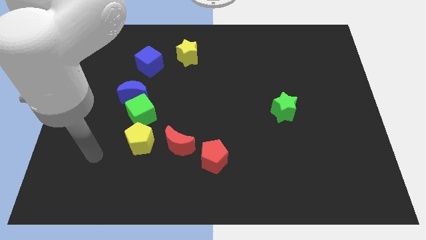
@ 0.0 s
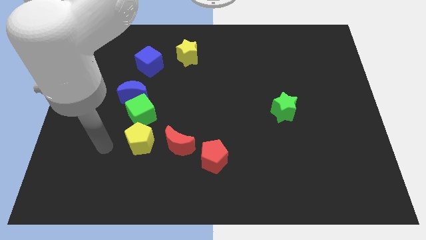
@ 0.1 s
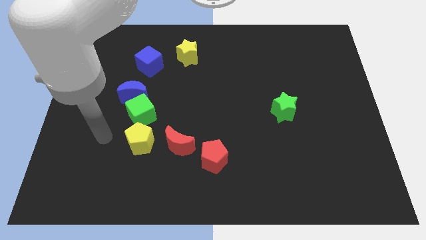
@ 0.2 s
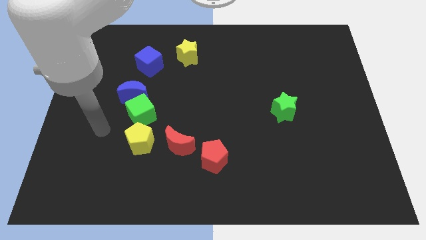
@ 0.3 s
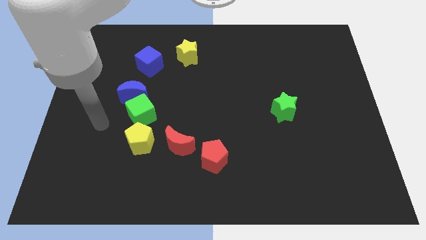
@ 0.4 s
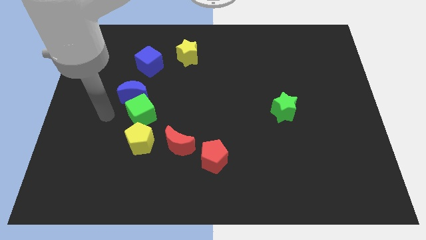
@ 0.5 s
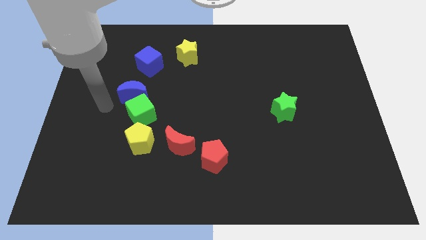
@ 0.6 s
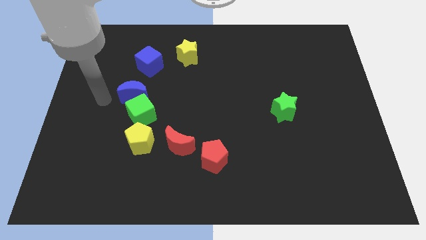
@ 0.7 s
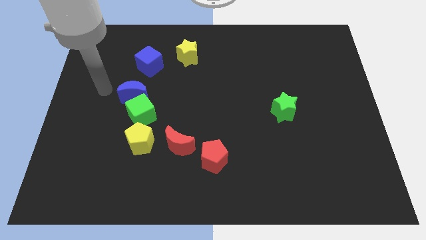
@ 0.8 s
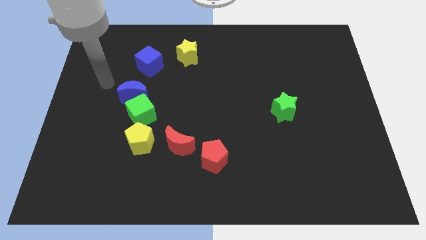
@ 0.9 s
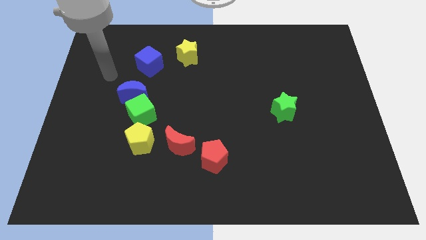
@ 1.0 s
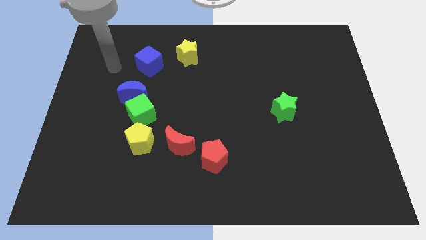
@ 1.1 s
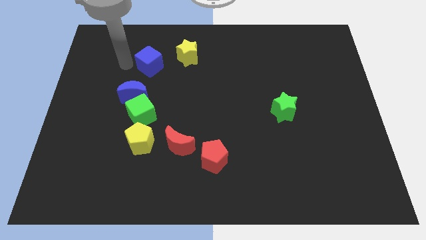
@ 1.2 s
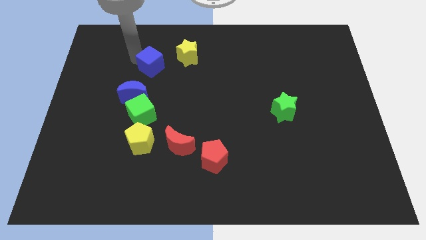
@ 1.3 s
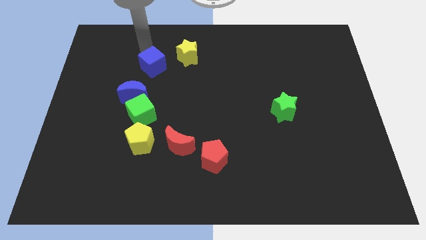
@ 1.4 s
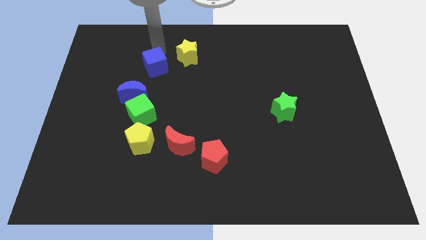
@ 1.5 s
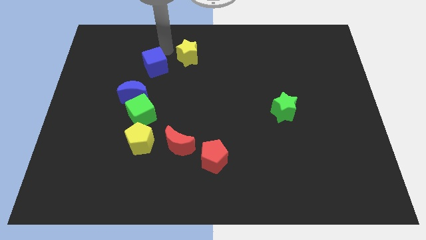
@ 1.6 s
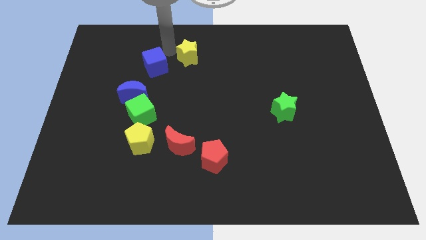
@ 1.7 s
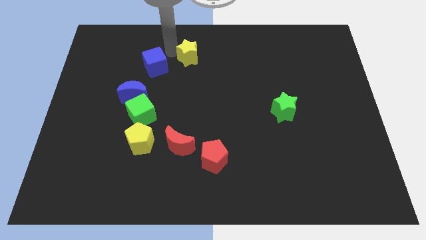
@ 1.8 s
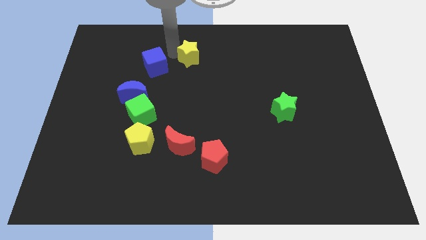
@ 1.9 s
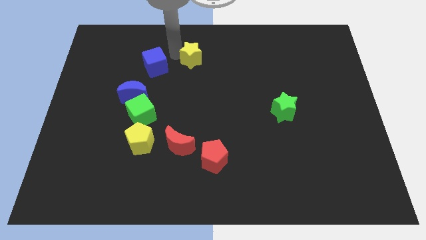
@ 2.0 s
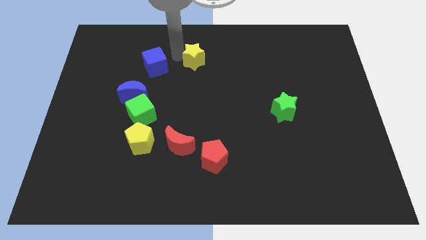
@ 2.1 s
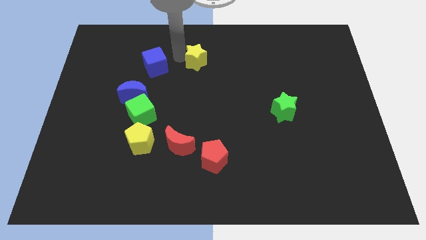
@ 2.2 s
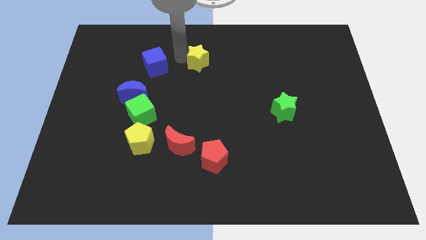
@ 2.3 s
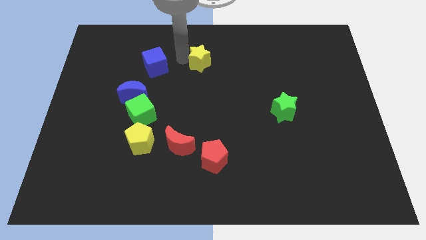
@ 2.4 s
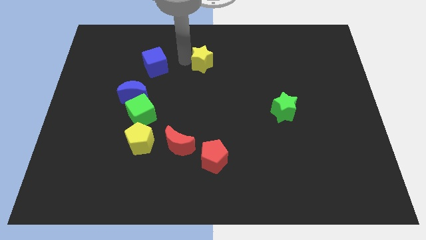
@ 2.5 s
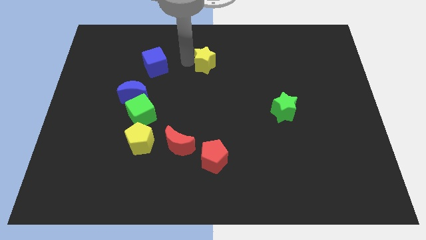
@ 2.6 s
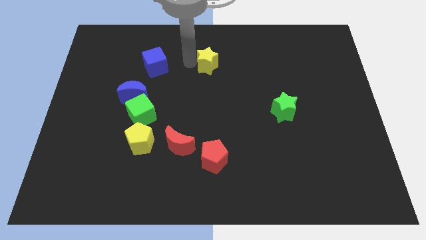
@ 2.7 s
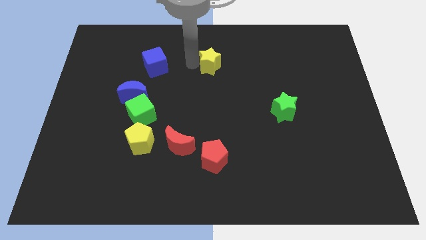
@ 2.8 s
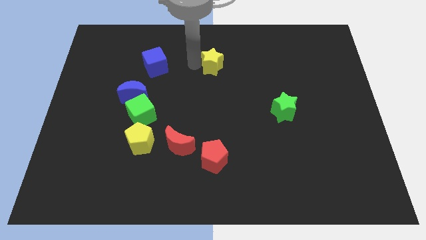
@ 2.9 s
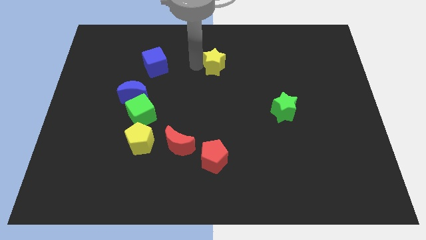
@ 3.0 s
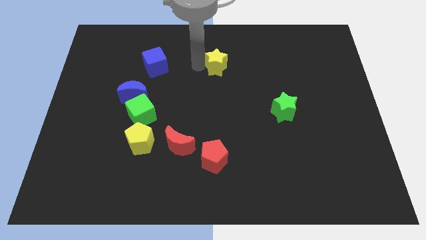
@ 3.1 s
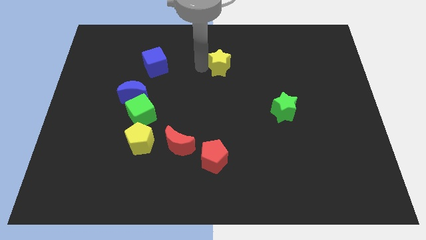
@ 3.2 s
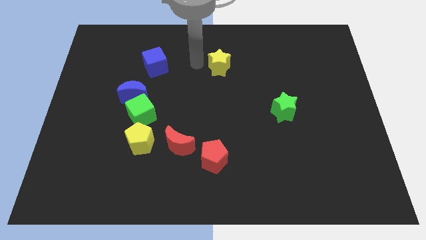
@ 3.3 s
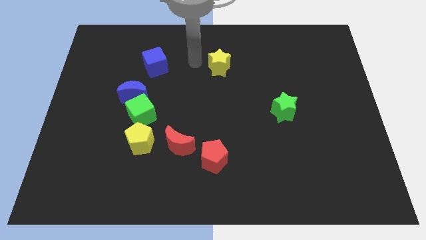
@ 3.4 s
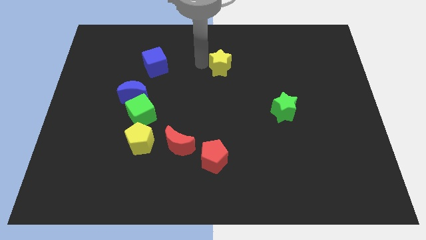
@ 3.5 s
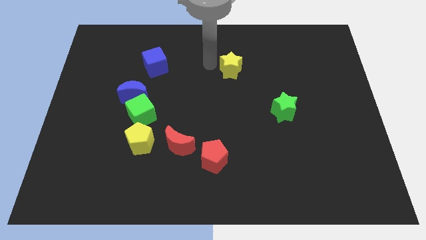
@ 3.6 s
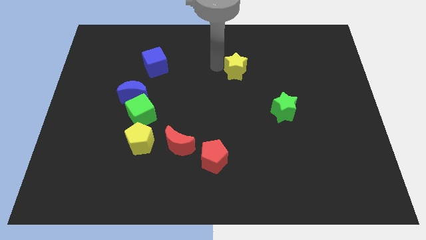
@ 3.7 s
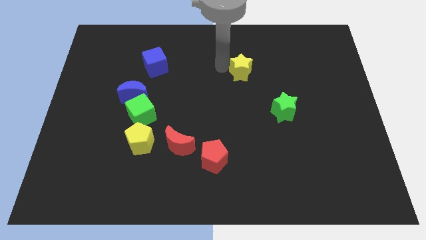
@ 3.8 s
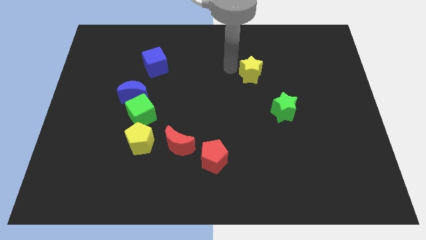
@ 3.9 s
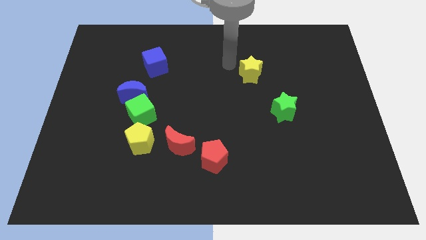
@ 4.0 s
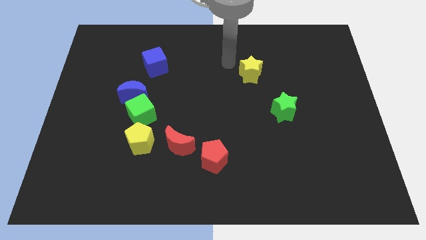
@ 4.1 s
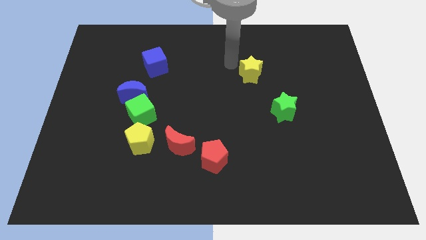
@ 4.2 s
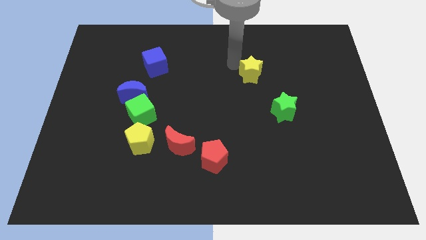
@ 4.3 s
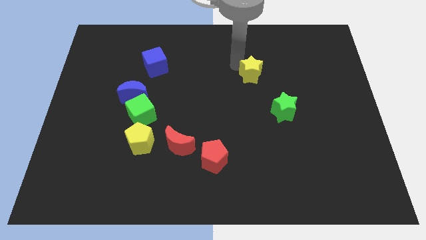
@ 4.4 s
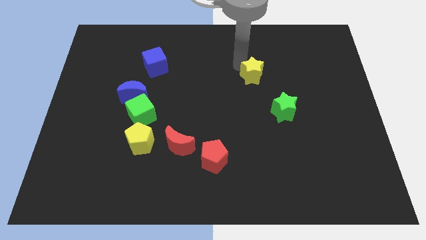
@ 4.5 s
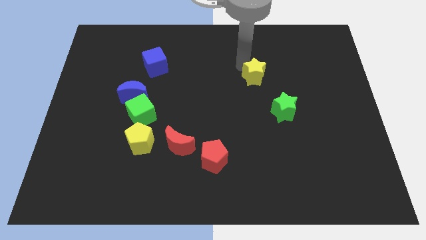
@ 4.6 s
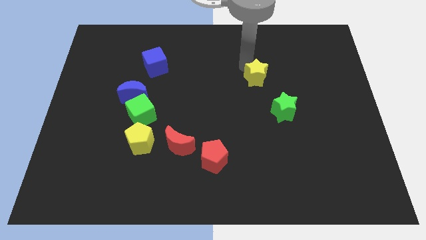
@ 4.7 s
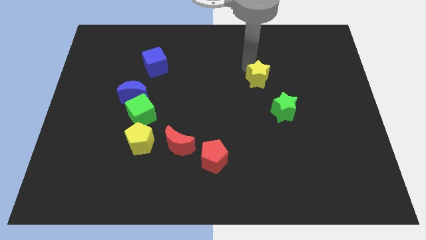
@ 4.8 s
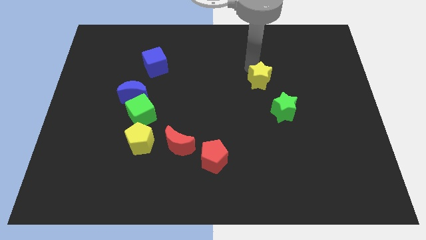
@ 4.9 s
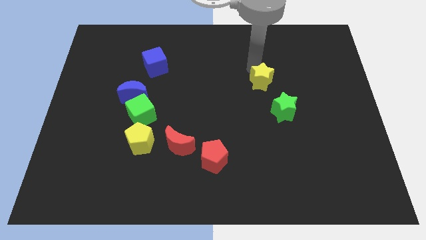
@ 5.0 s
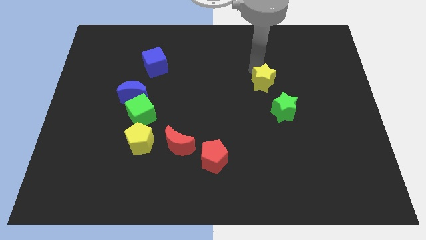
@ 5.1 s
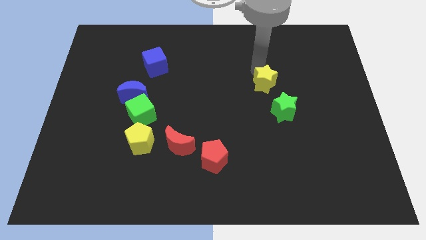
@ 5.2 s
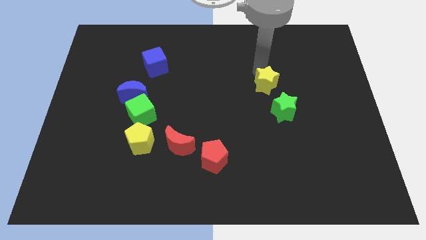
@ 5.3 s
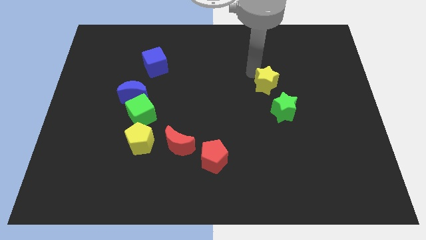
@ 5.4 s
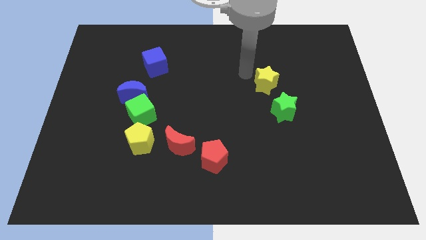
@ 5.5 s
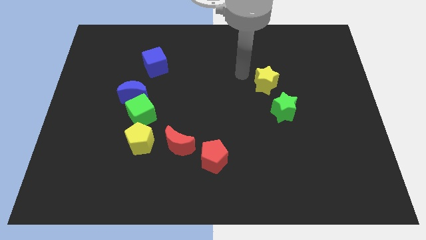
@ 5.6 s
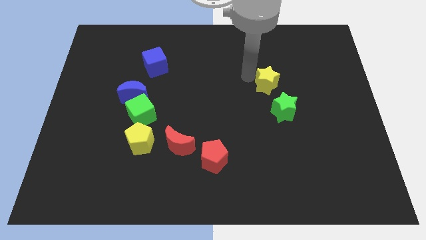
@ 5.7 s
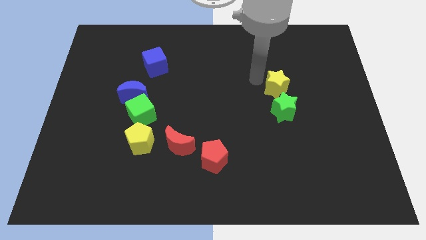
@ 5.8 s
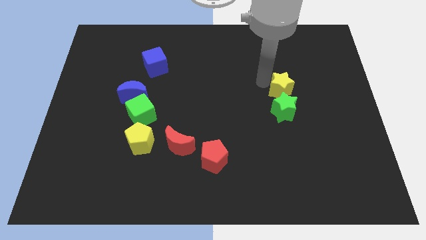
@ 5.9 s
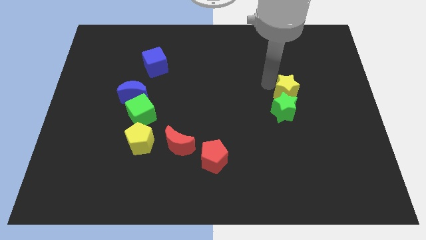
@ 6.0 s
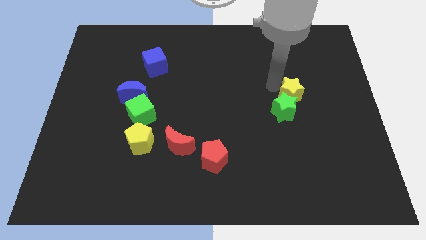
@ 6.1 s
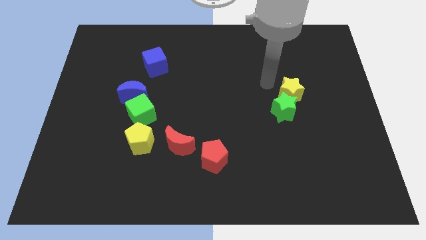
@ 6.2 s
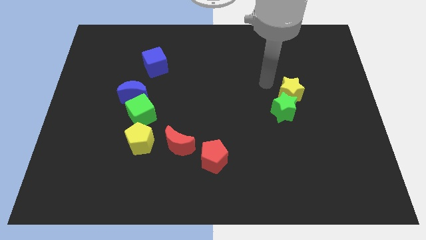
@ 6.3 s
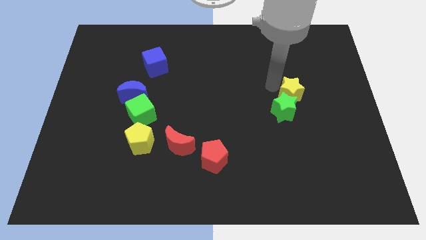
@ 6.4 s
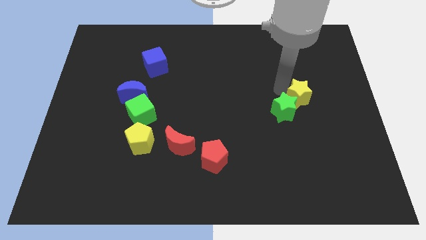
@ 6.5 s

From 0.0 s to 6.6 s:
move the yellow star right of the green star

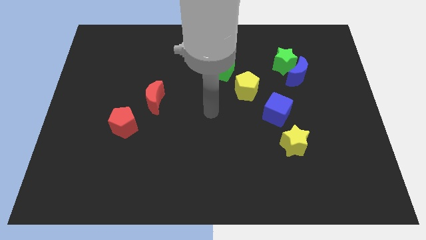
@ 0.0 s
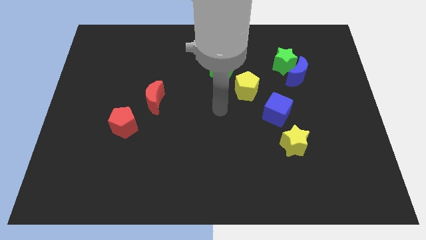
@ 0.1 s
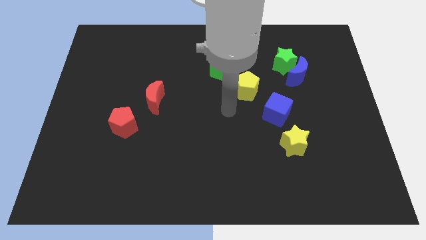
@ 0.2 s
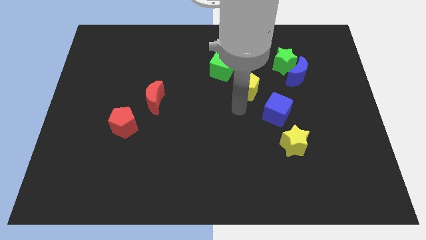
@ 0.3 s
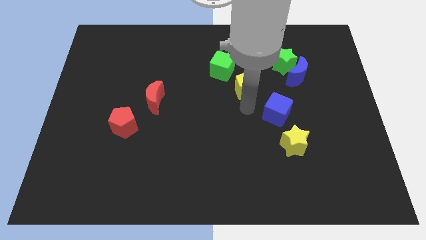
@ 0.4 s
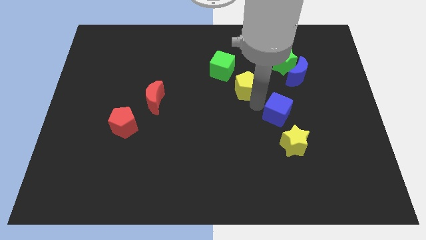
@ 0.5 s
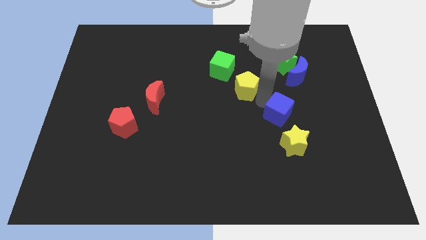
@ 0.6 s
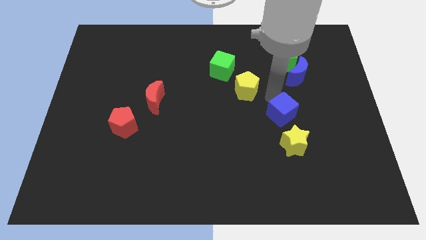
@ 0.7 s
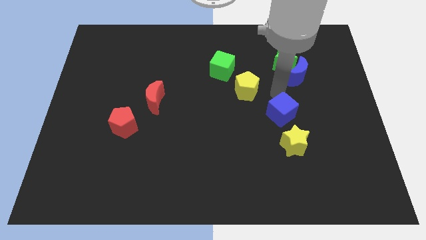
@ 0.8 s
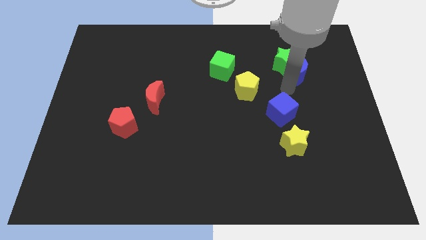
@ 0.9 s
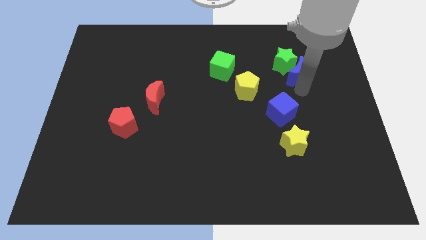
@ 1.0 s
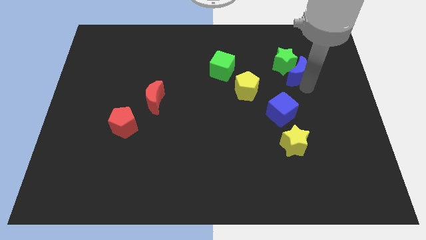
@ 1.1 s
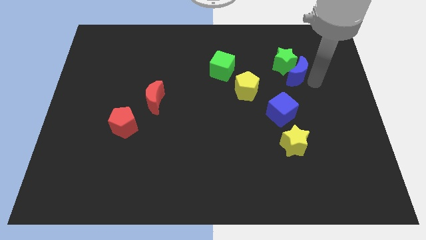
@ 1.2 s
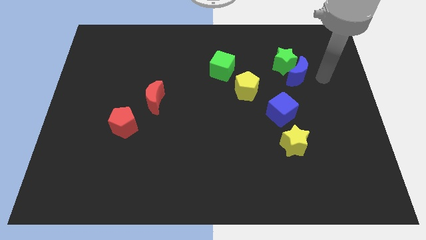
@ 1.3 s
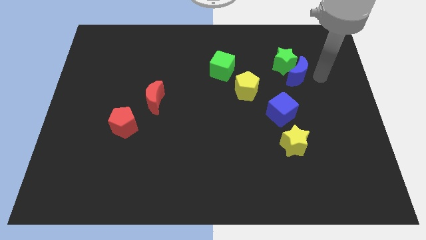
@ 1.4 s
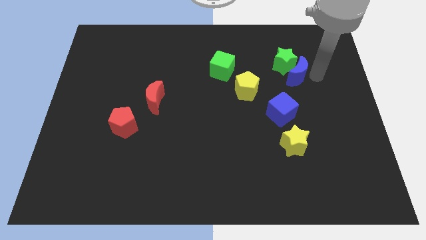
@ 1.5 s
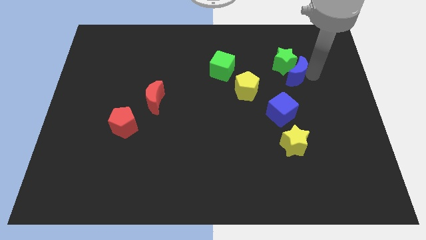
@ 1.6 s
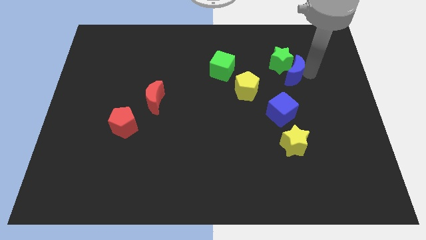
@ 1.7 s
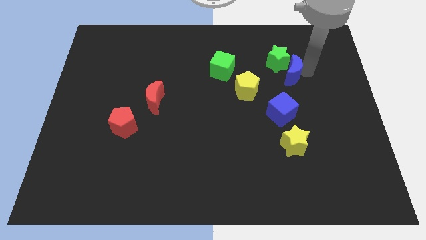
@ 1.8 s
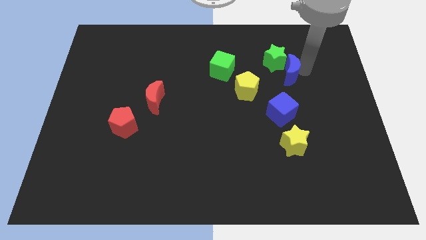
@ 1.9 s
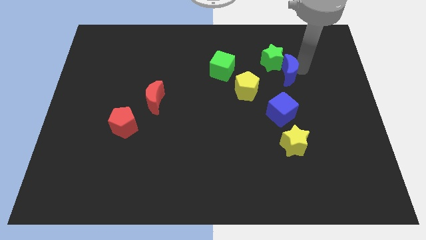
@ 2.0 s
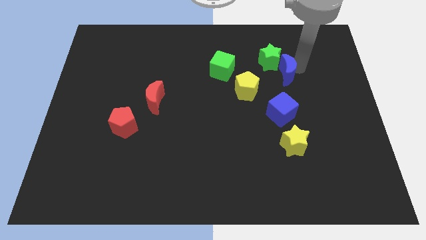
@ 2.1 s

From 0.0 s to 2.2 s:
push the blue moon diagonally up and to the right of the yellow pentagon
